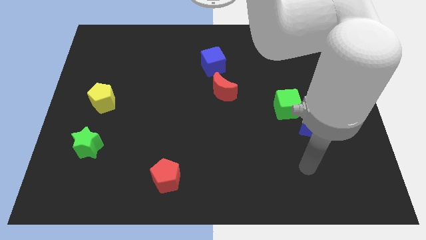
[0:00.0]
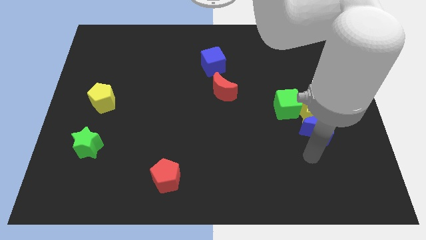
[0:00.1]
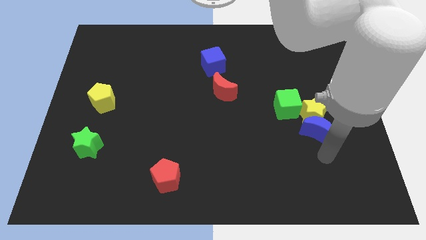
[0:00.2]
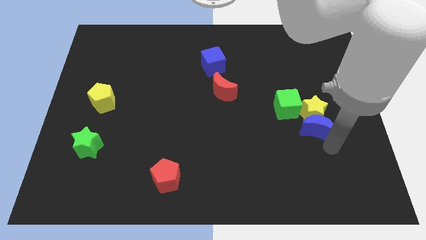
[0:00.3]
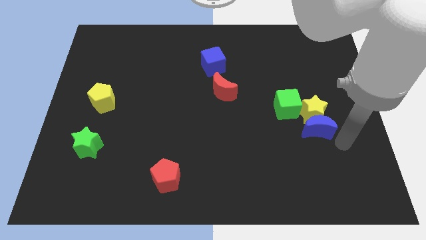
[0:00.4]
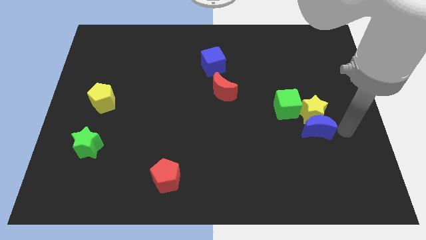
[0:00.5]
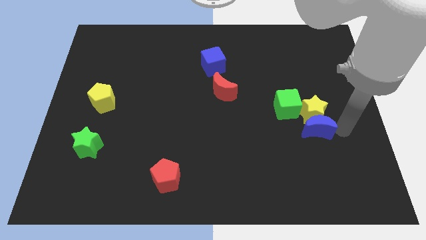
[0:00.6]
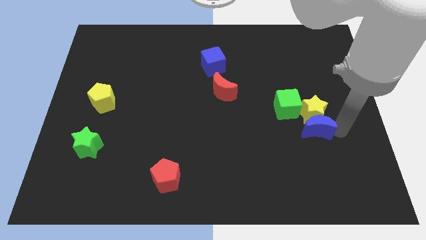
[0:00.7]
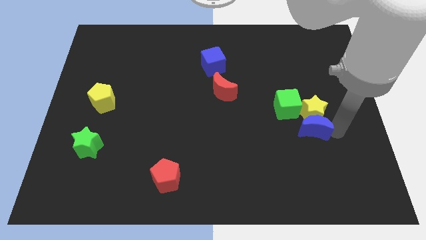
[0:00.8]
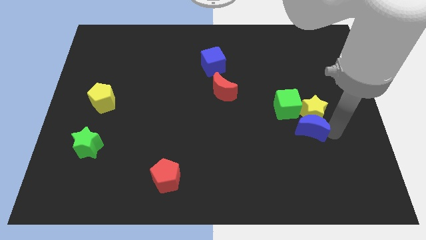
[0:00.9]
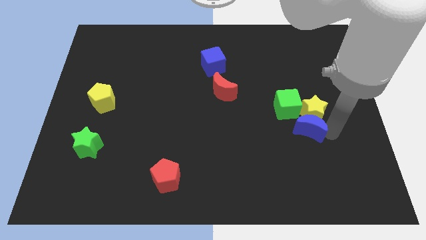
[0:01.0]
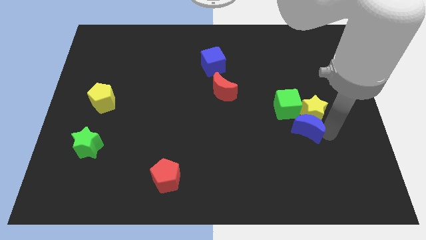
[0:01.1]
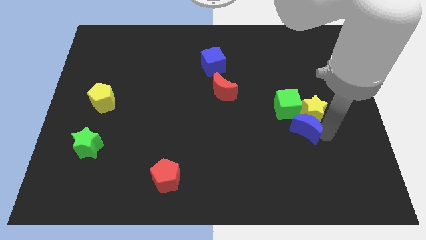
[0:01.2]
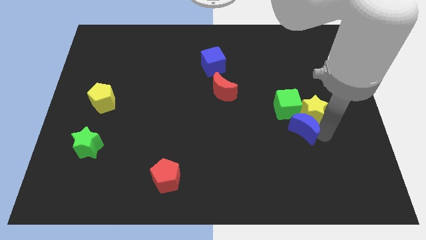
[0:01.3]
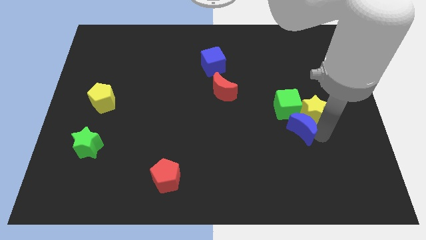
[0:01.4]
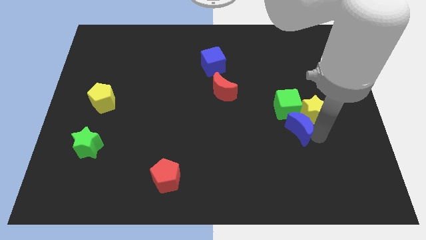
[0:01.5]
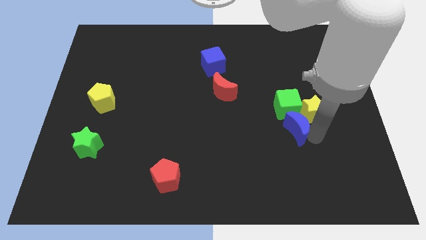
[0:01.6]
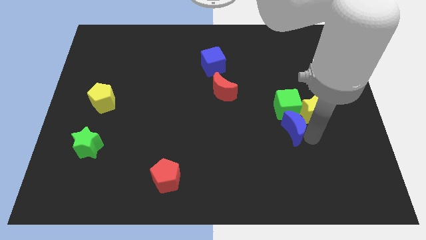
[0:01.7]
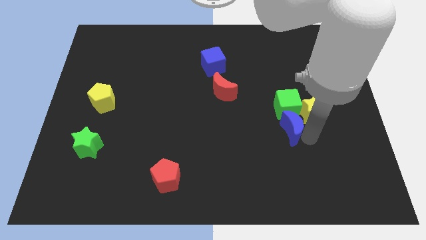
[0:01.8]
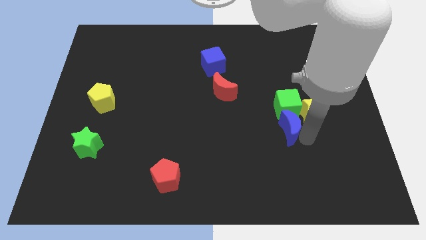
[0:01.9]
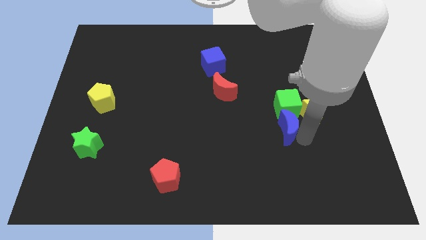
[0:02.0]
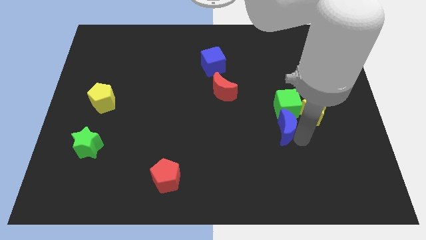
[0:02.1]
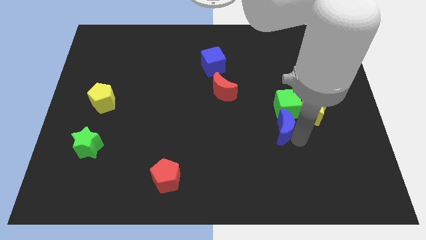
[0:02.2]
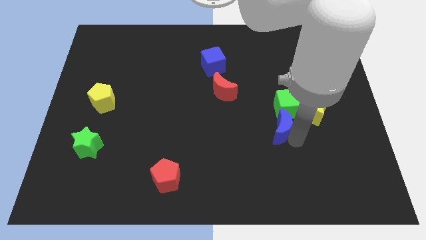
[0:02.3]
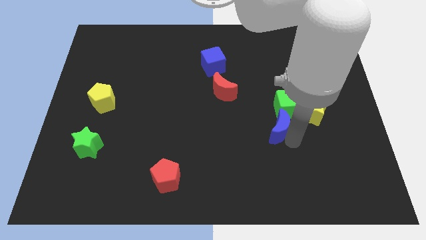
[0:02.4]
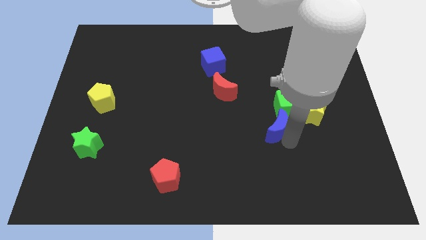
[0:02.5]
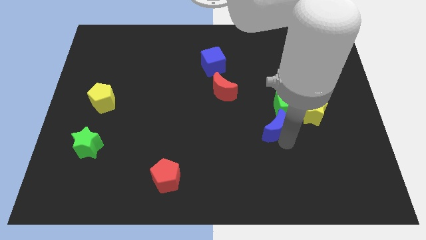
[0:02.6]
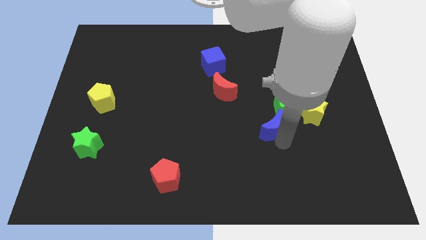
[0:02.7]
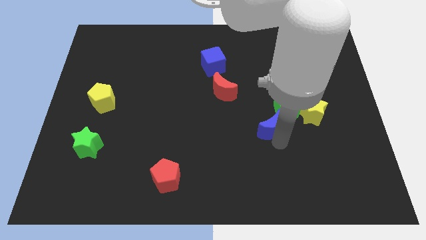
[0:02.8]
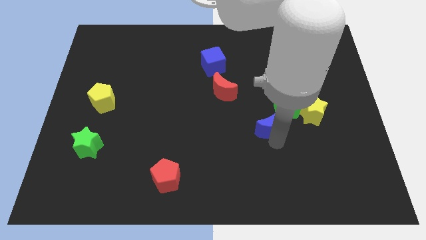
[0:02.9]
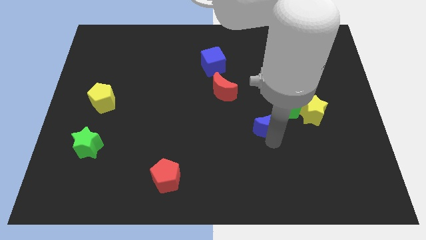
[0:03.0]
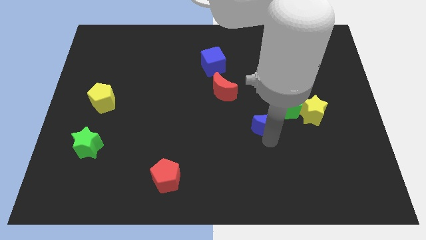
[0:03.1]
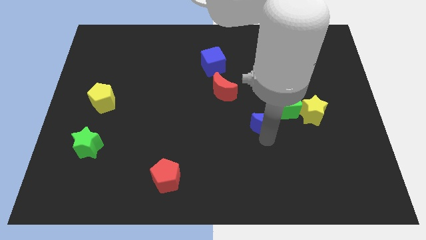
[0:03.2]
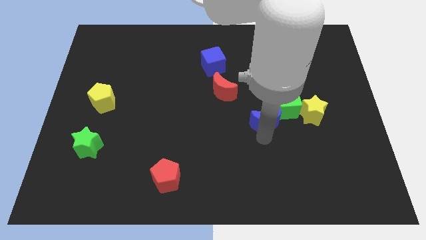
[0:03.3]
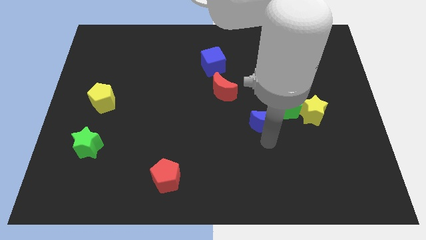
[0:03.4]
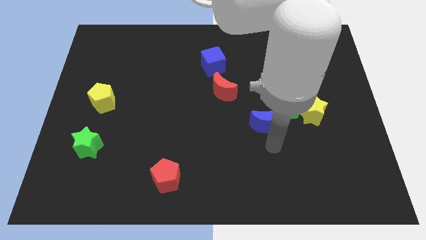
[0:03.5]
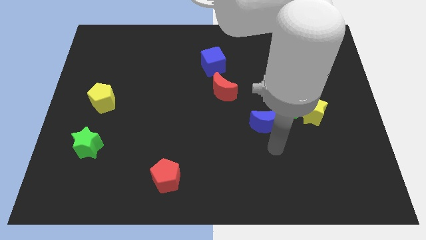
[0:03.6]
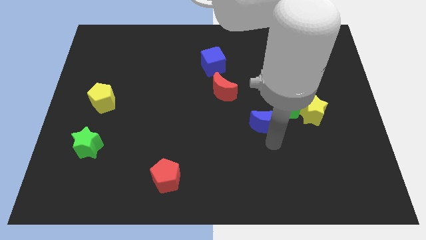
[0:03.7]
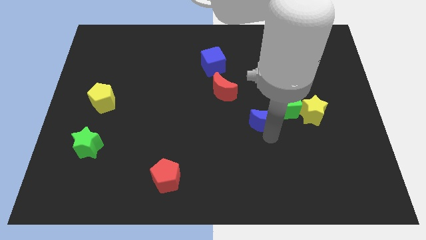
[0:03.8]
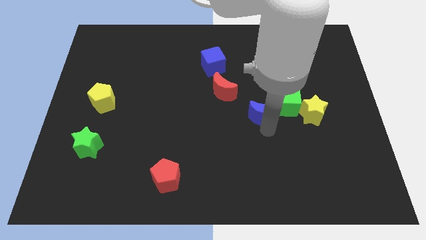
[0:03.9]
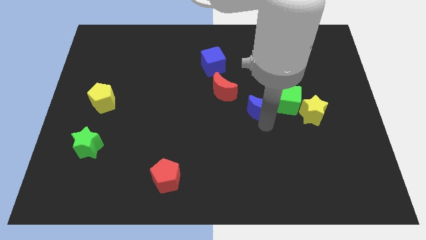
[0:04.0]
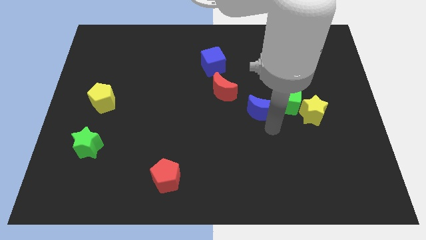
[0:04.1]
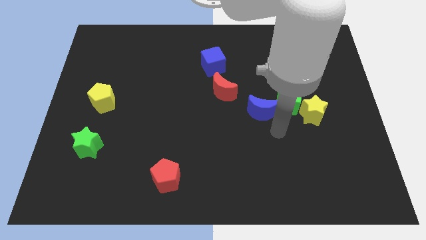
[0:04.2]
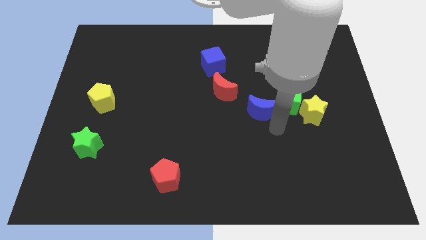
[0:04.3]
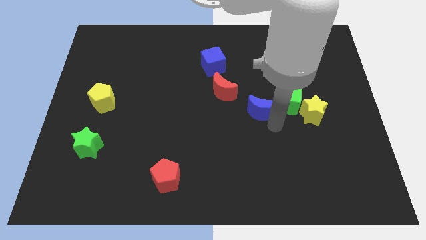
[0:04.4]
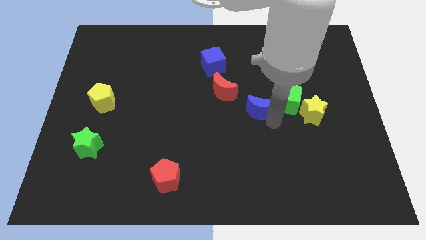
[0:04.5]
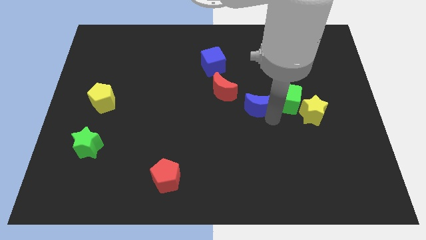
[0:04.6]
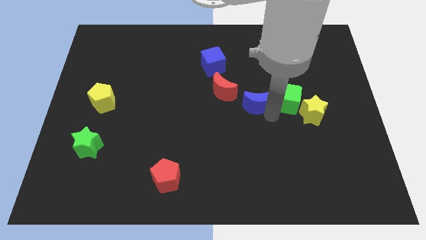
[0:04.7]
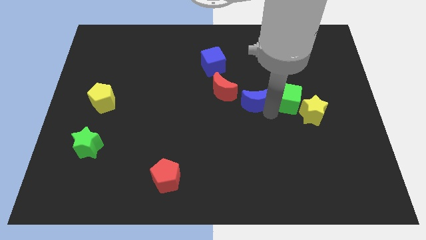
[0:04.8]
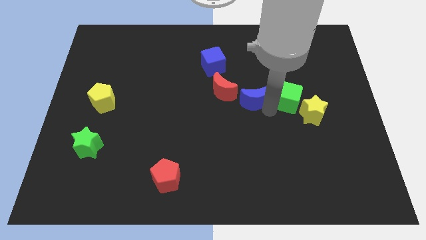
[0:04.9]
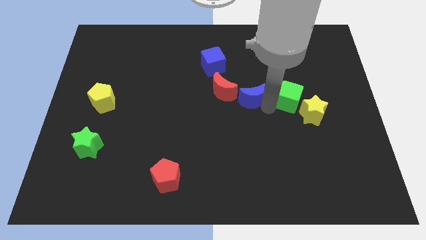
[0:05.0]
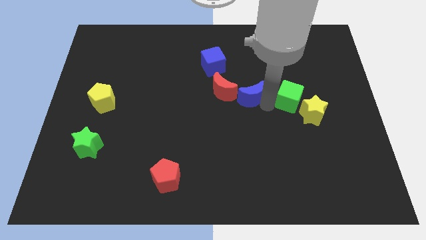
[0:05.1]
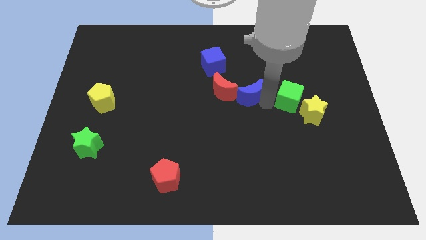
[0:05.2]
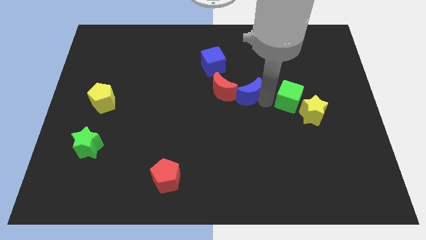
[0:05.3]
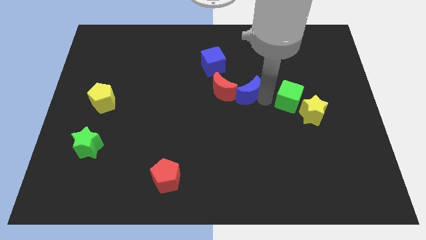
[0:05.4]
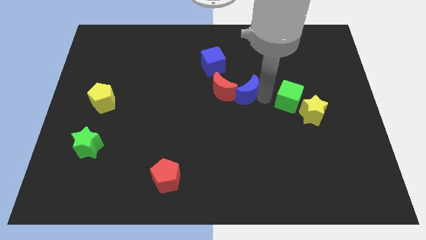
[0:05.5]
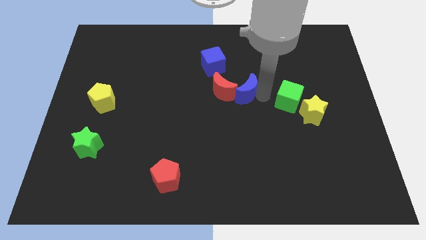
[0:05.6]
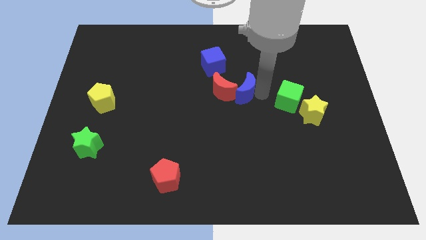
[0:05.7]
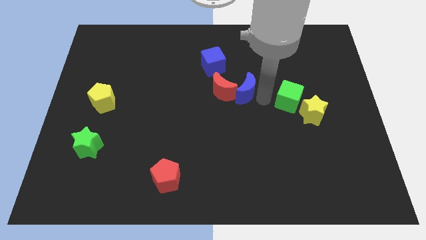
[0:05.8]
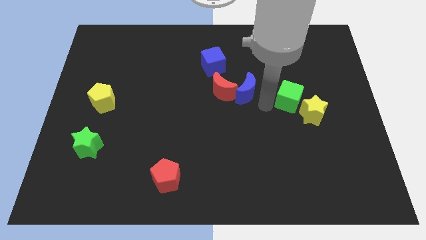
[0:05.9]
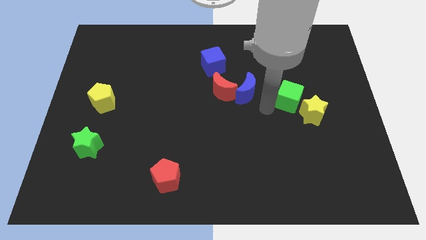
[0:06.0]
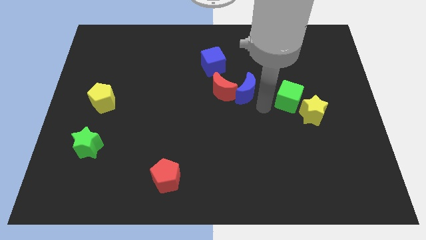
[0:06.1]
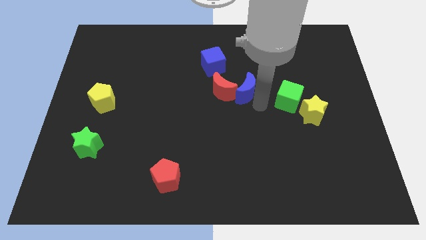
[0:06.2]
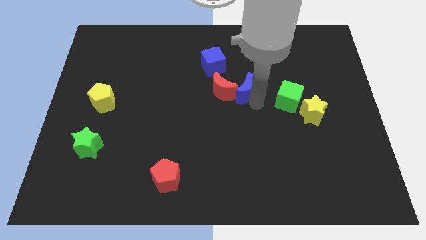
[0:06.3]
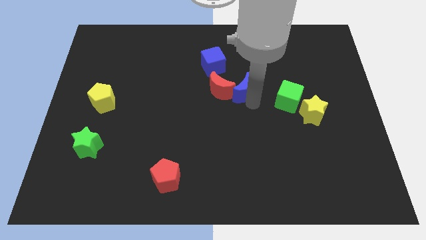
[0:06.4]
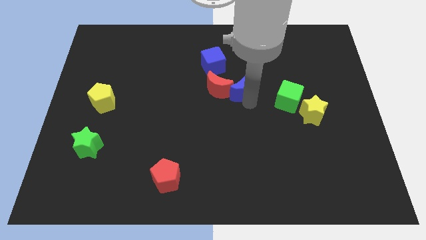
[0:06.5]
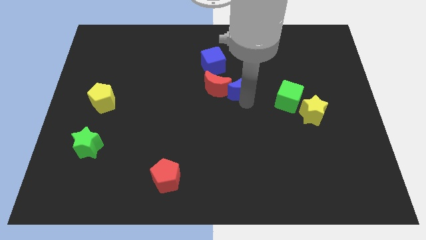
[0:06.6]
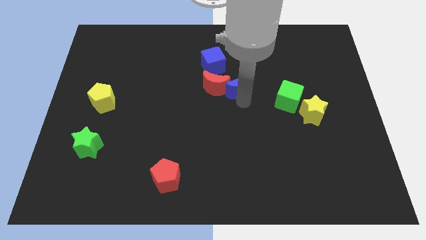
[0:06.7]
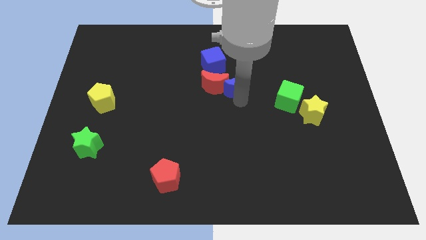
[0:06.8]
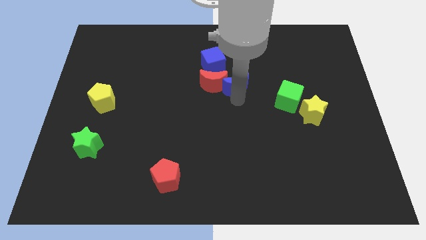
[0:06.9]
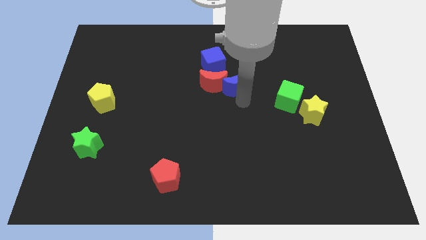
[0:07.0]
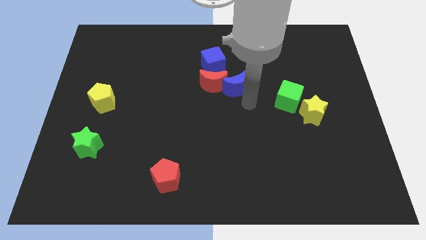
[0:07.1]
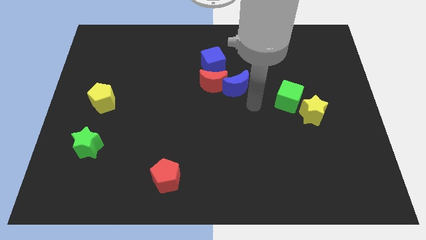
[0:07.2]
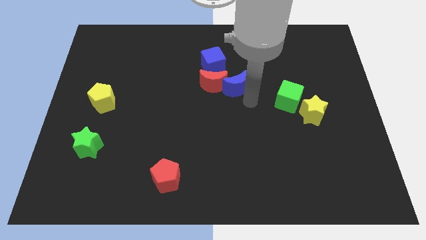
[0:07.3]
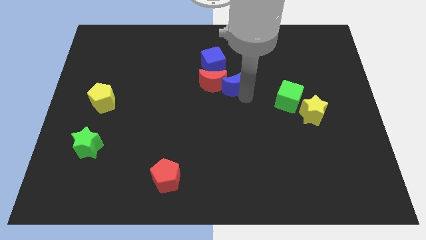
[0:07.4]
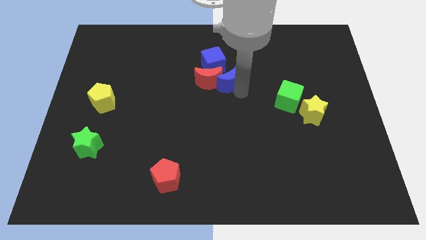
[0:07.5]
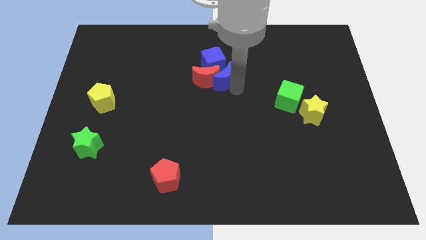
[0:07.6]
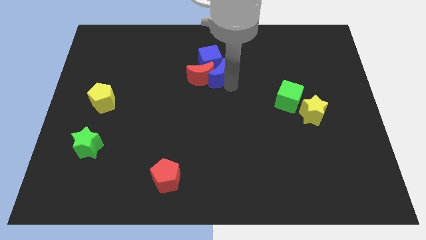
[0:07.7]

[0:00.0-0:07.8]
push the blue moon close to the blue cube
